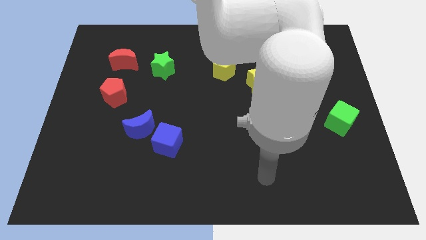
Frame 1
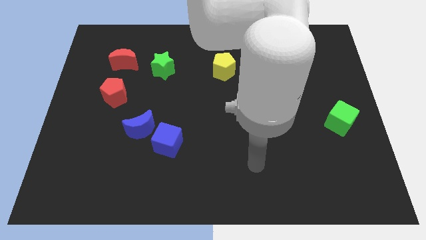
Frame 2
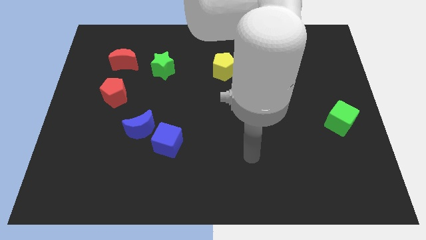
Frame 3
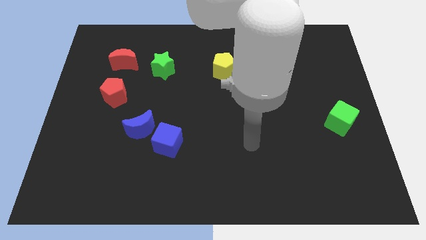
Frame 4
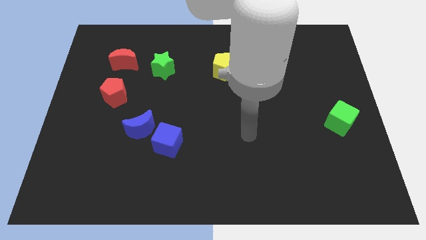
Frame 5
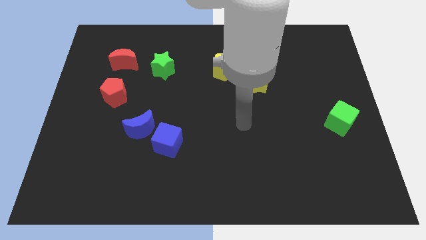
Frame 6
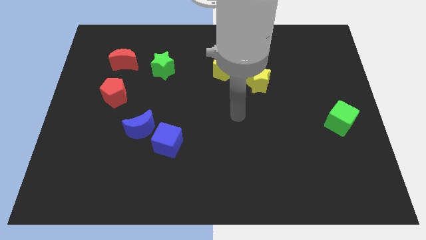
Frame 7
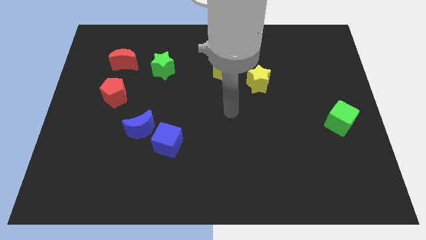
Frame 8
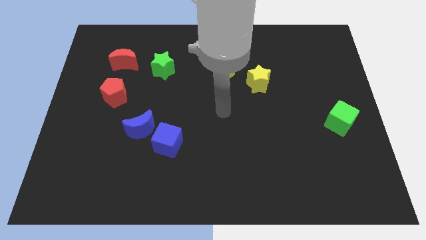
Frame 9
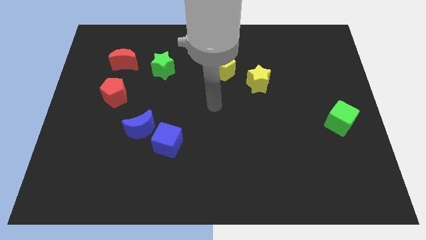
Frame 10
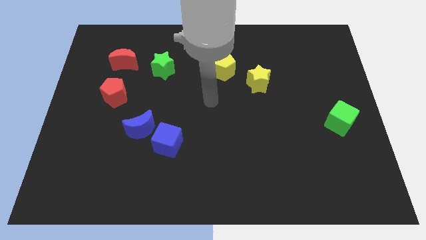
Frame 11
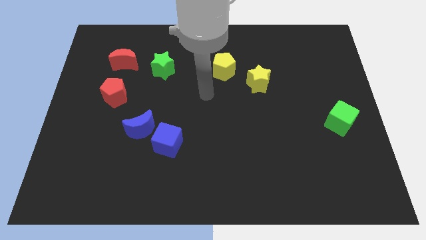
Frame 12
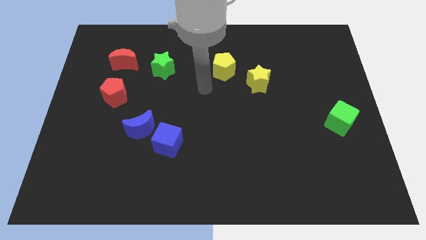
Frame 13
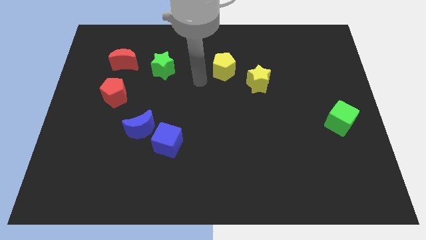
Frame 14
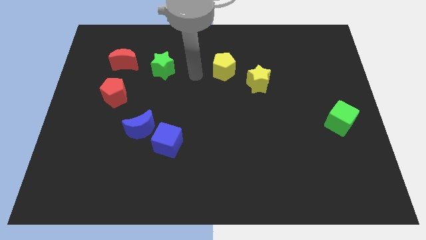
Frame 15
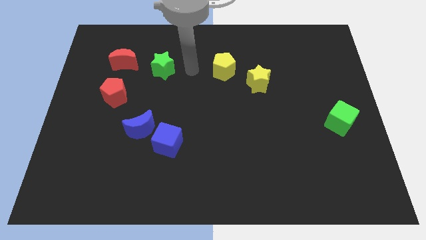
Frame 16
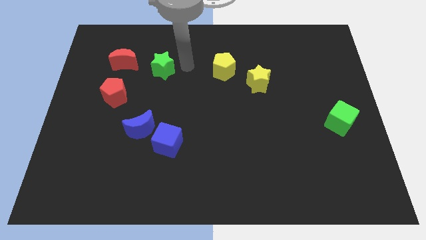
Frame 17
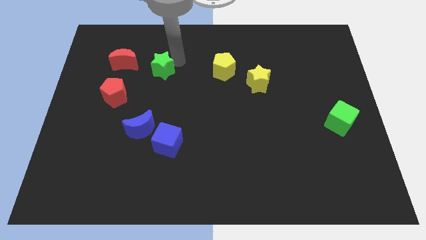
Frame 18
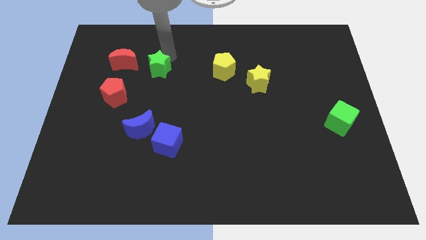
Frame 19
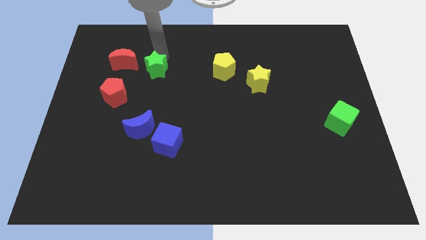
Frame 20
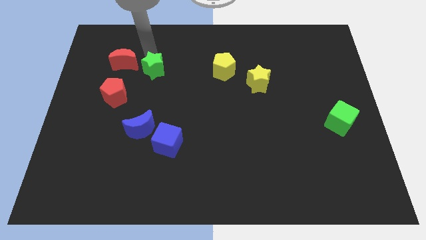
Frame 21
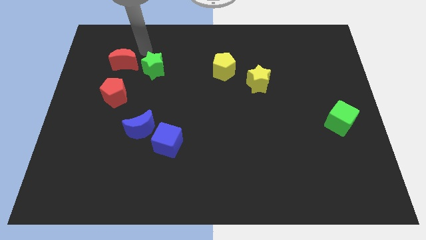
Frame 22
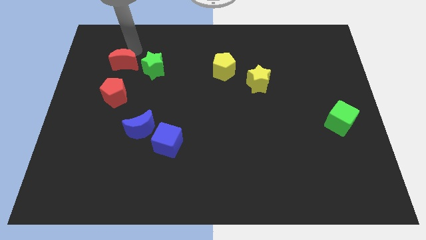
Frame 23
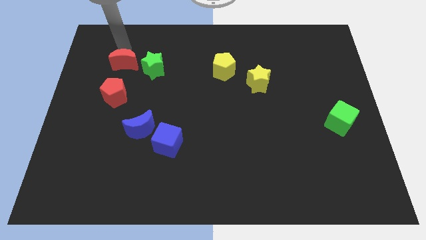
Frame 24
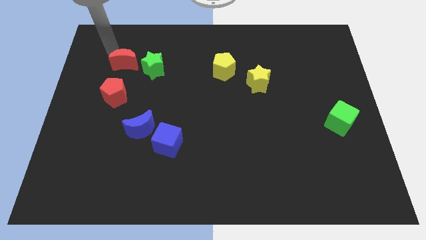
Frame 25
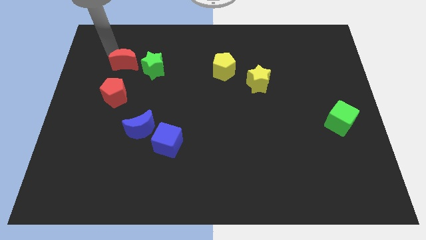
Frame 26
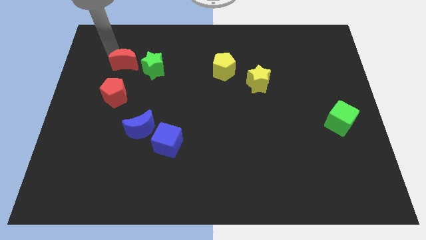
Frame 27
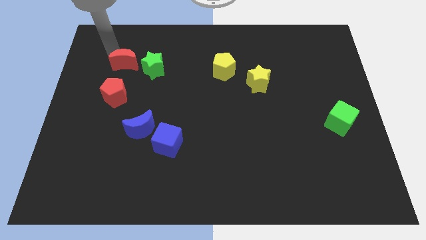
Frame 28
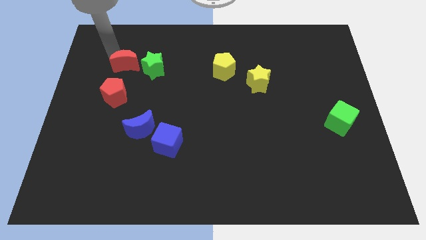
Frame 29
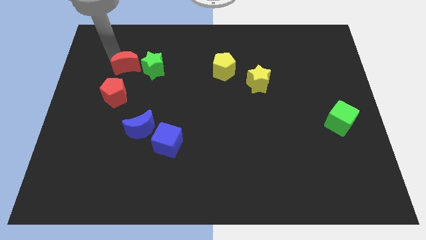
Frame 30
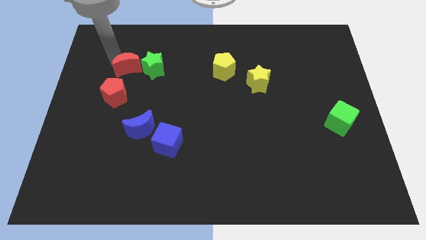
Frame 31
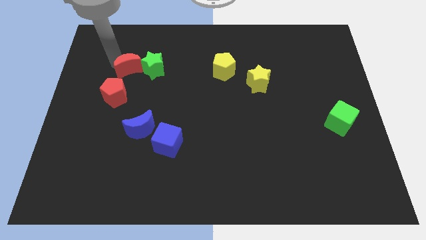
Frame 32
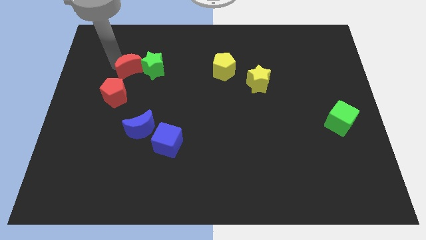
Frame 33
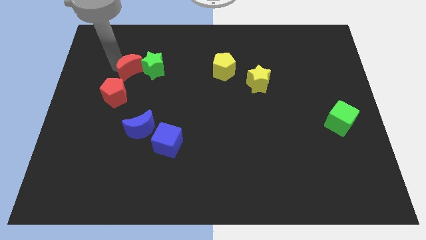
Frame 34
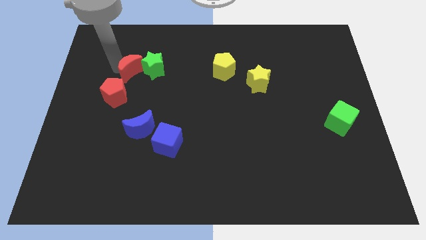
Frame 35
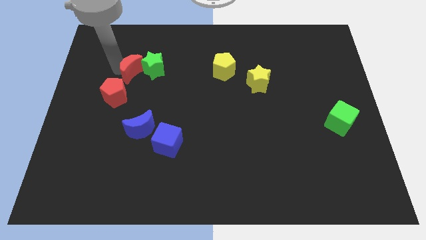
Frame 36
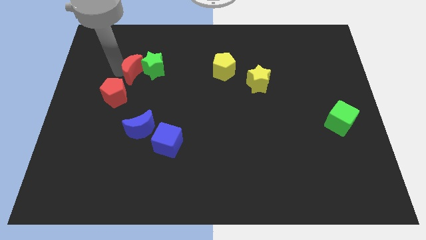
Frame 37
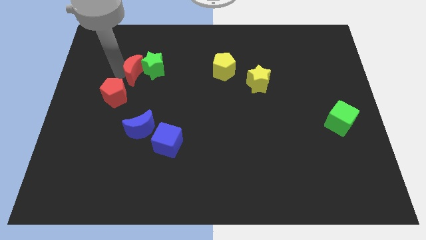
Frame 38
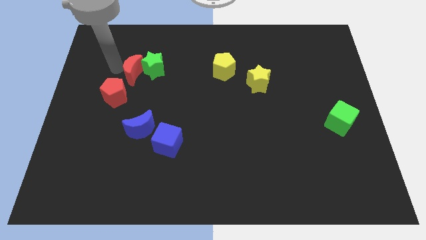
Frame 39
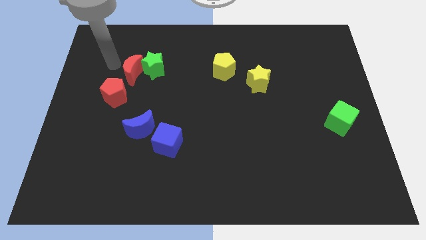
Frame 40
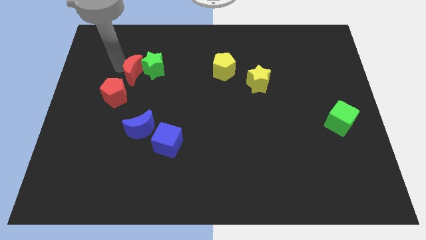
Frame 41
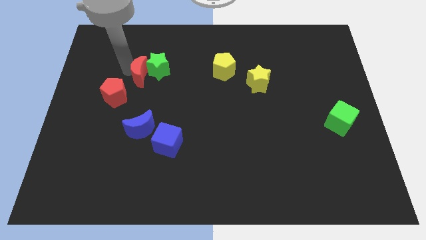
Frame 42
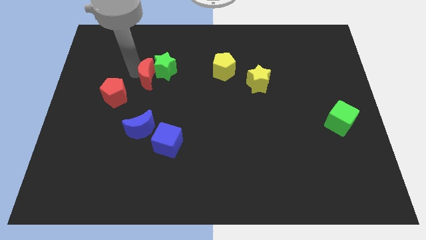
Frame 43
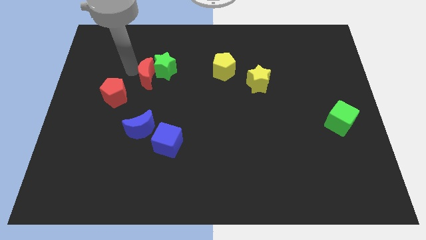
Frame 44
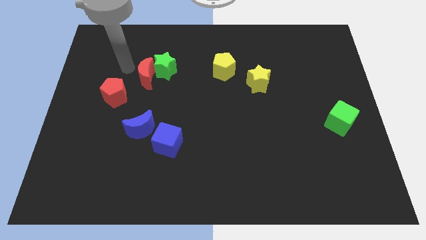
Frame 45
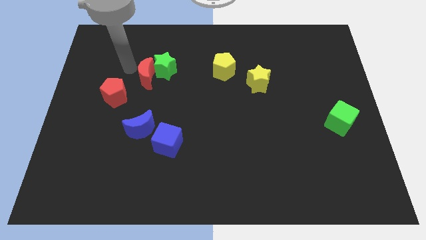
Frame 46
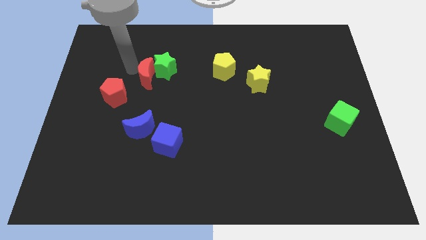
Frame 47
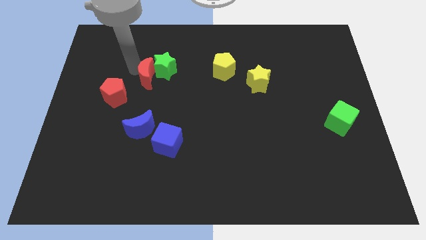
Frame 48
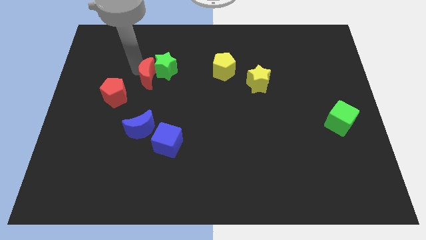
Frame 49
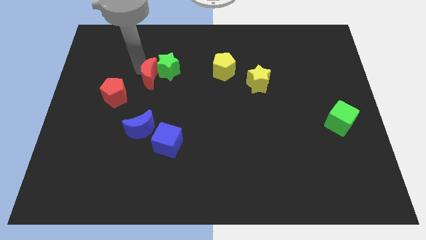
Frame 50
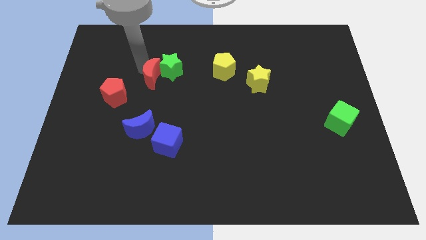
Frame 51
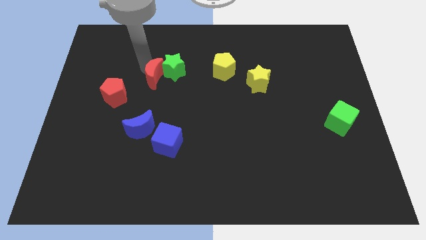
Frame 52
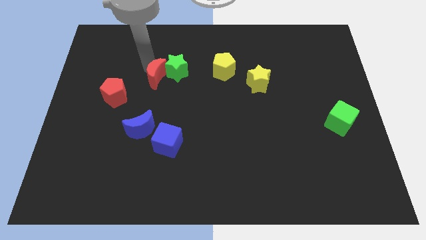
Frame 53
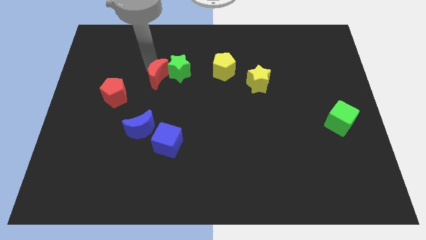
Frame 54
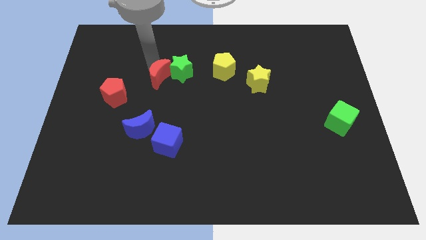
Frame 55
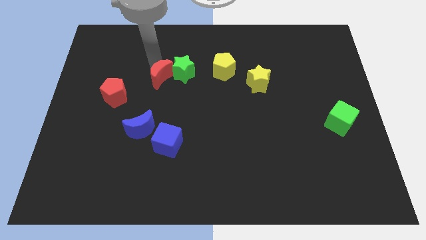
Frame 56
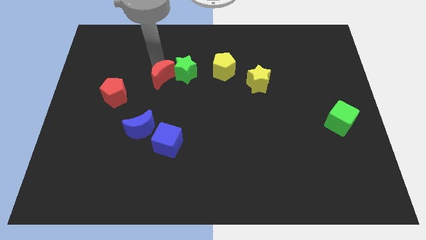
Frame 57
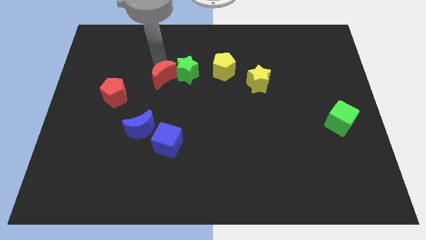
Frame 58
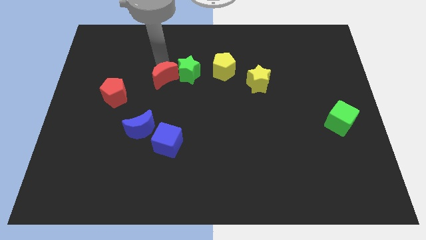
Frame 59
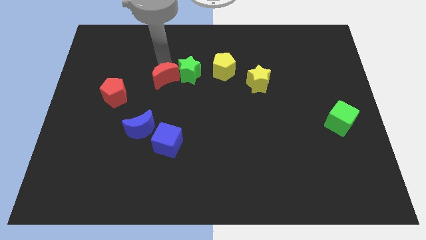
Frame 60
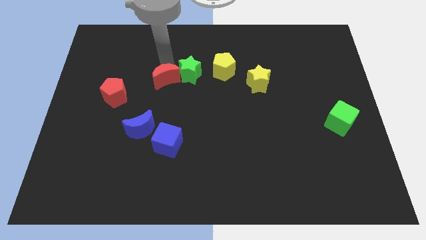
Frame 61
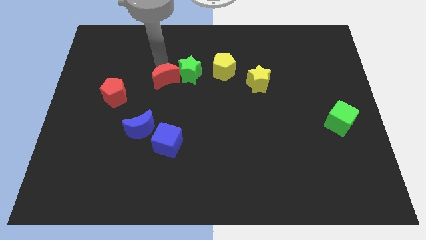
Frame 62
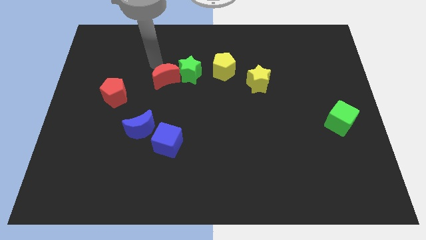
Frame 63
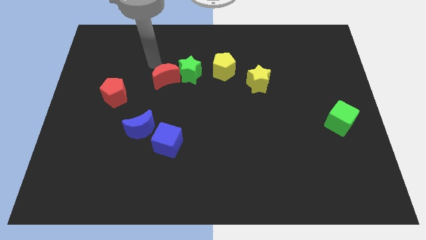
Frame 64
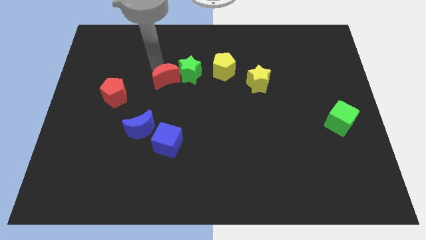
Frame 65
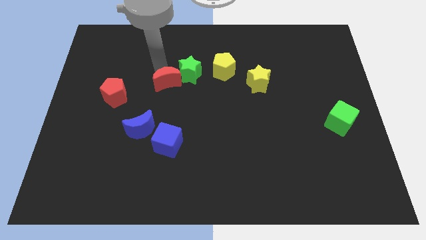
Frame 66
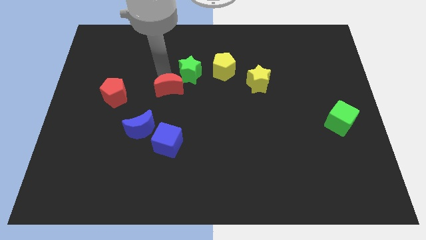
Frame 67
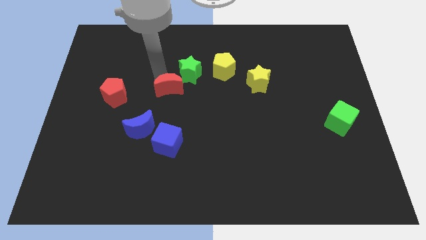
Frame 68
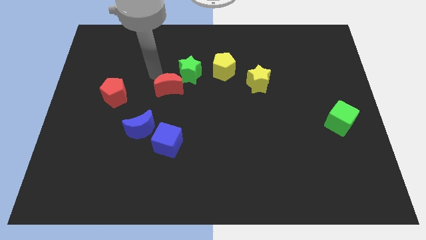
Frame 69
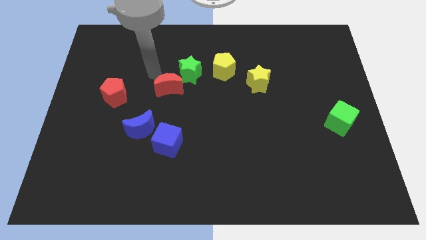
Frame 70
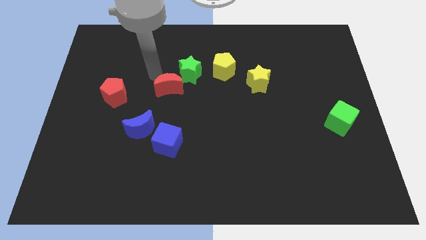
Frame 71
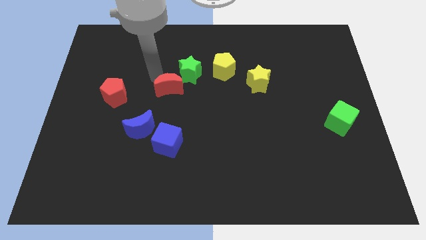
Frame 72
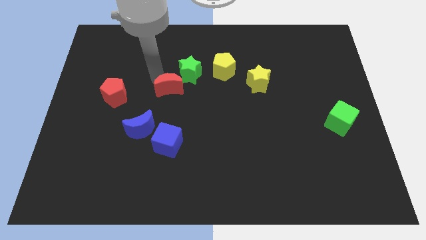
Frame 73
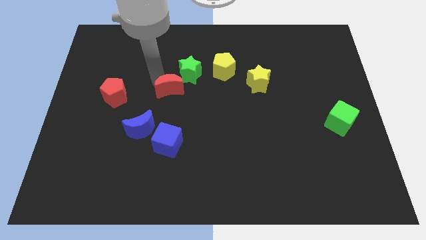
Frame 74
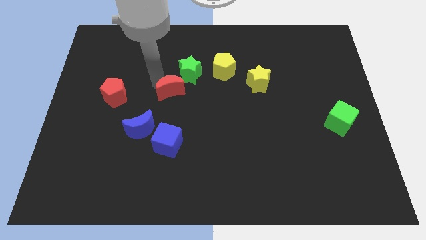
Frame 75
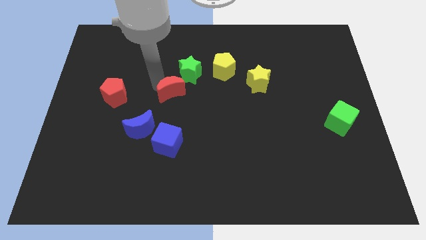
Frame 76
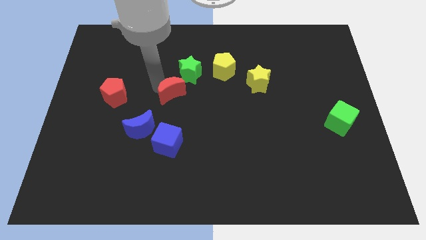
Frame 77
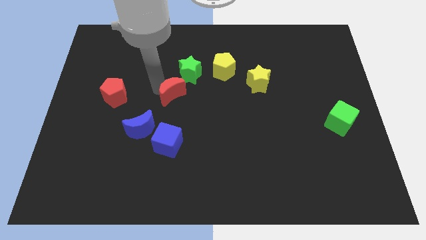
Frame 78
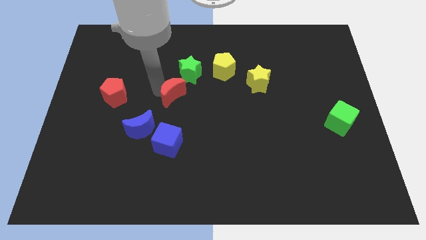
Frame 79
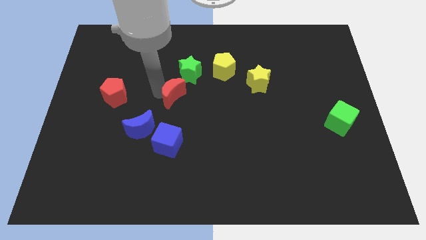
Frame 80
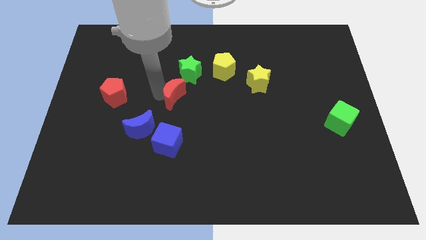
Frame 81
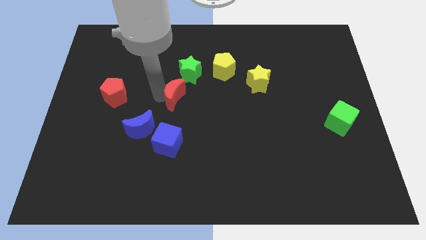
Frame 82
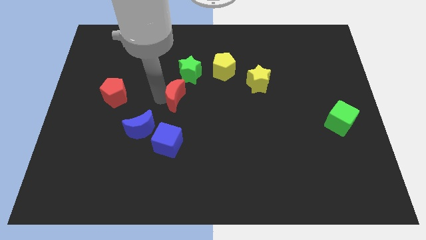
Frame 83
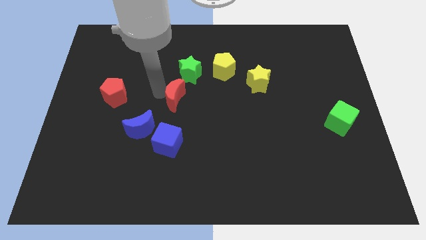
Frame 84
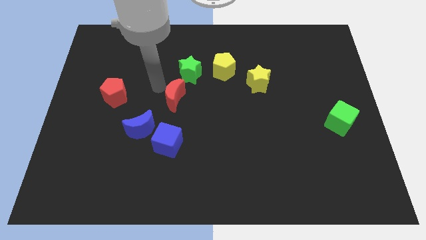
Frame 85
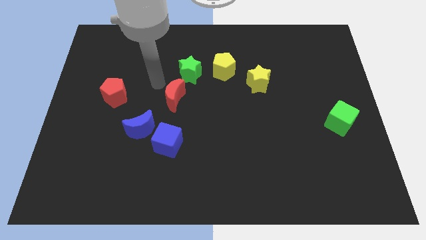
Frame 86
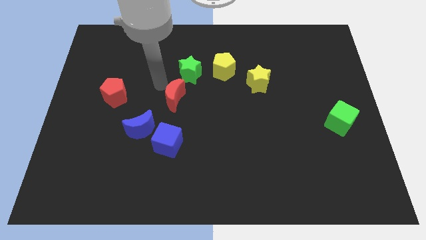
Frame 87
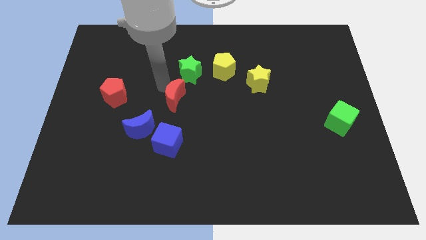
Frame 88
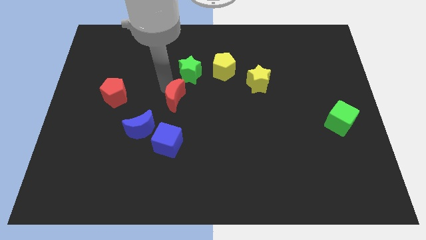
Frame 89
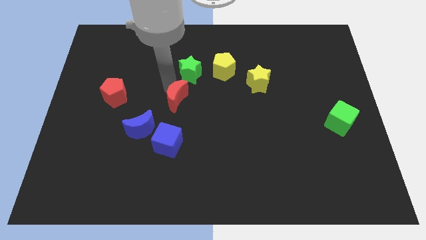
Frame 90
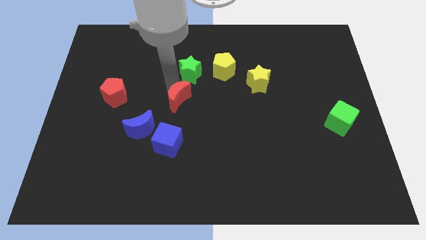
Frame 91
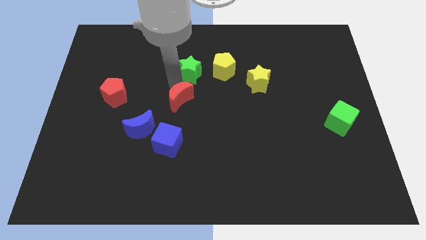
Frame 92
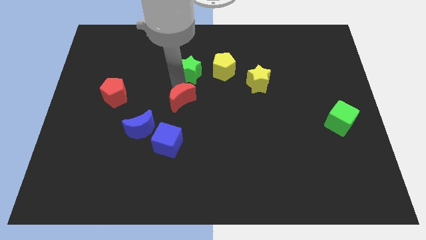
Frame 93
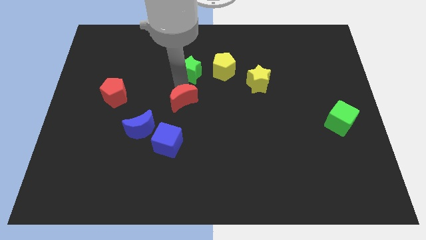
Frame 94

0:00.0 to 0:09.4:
push the red moon downwards and right
